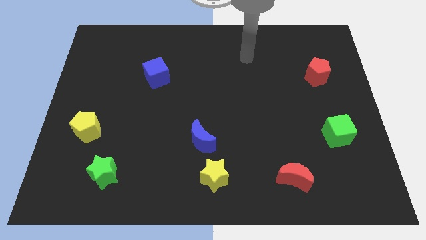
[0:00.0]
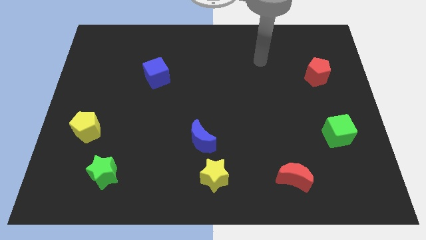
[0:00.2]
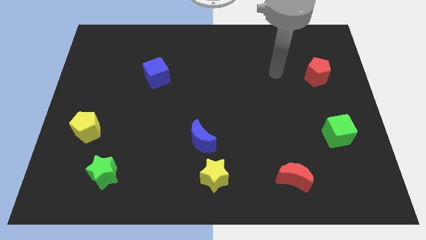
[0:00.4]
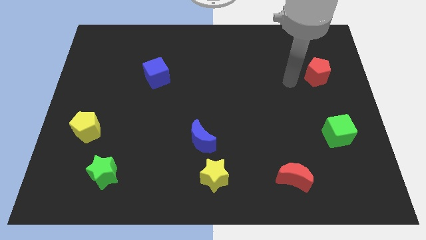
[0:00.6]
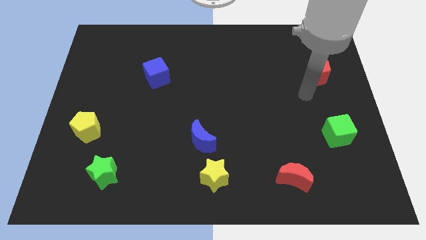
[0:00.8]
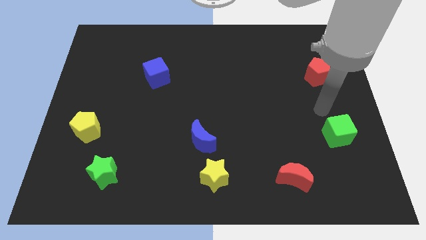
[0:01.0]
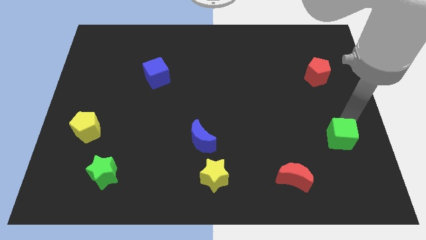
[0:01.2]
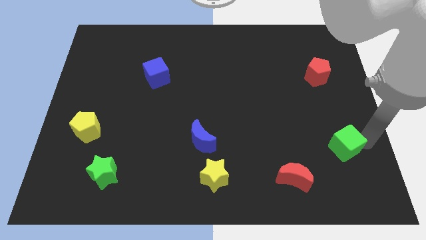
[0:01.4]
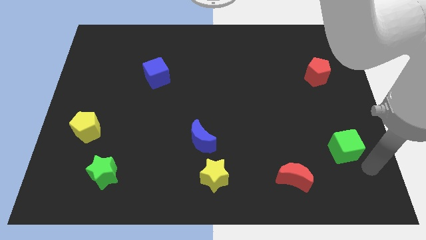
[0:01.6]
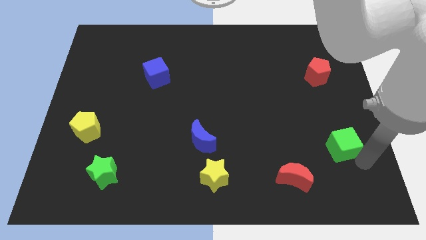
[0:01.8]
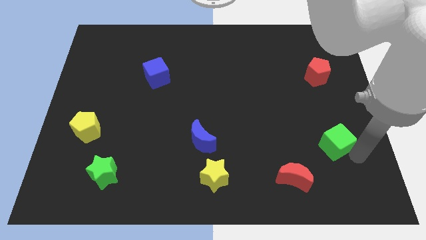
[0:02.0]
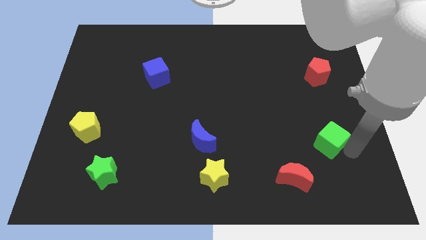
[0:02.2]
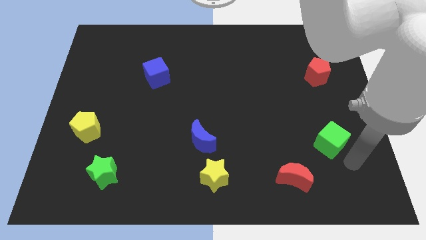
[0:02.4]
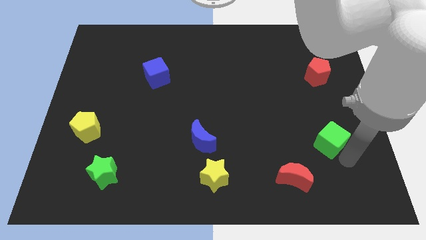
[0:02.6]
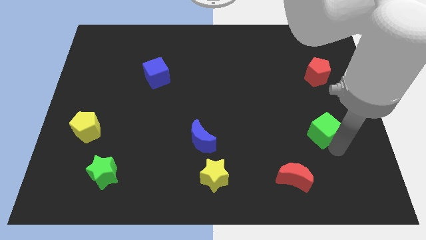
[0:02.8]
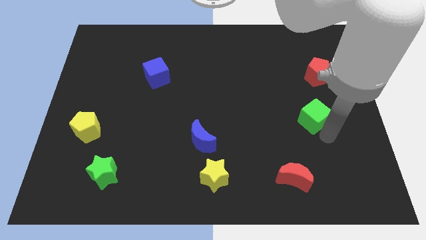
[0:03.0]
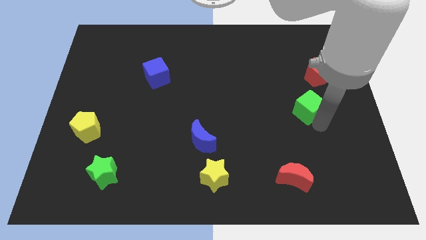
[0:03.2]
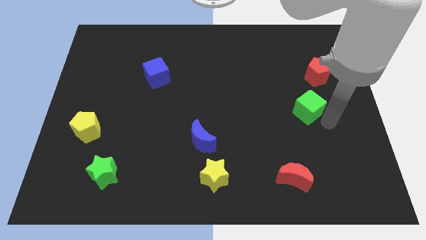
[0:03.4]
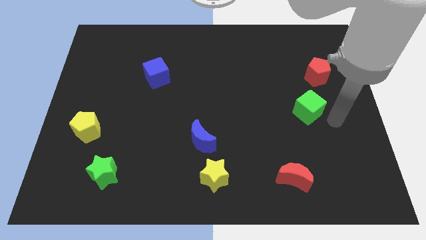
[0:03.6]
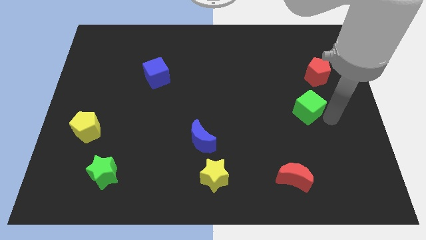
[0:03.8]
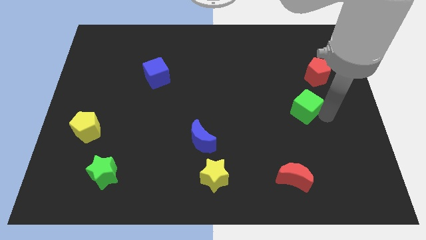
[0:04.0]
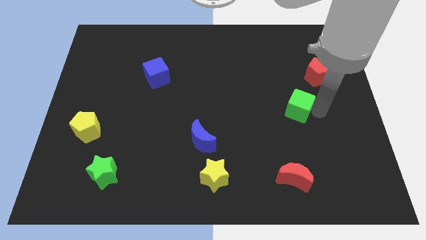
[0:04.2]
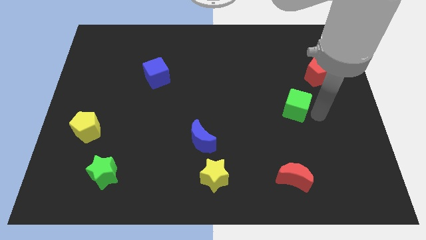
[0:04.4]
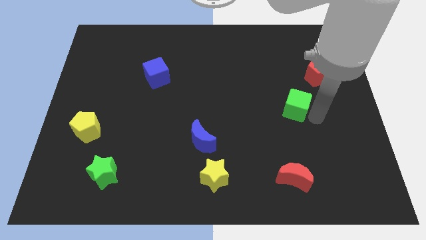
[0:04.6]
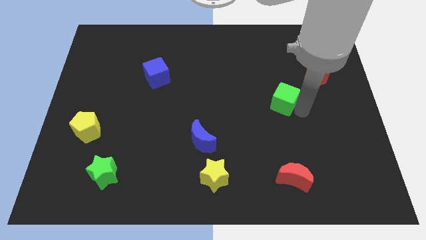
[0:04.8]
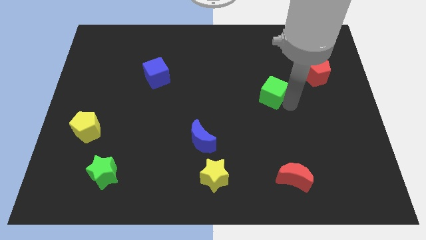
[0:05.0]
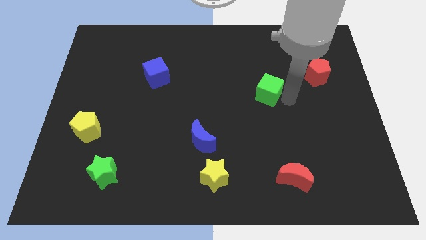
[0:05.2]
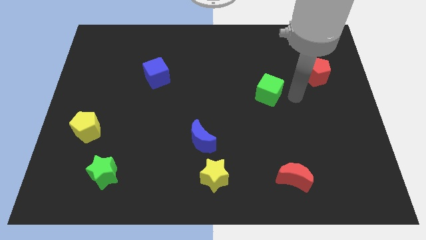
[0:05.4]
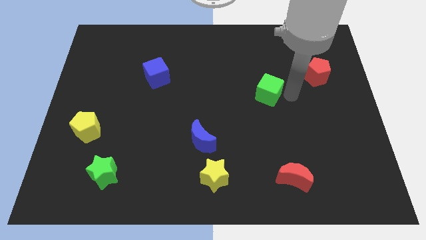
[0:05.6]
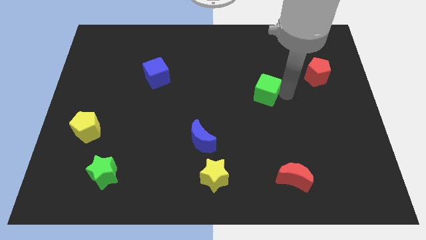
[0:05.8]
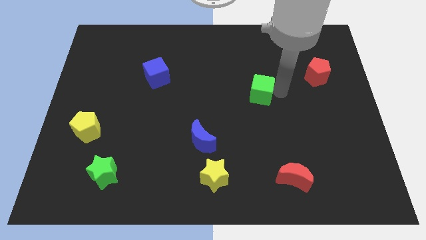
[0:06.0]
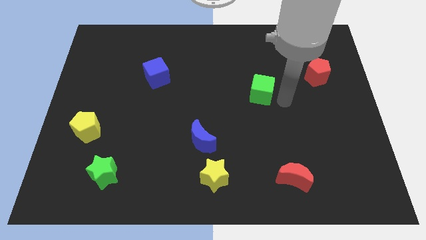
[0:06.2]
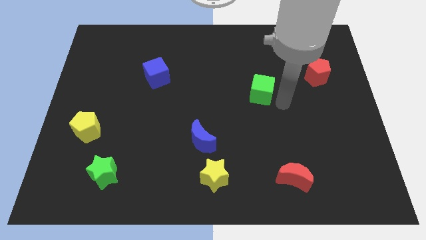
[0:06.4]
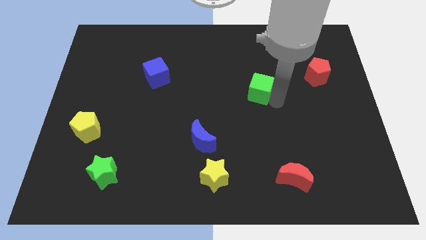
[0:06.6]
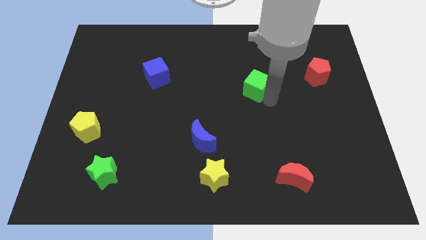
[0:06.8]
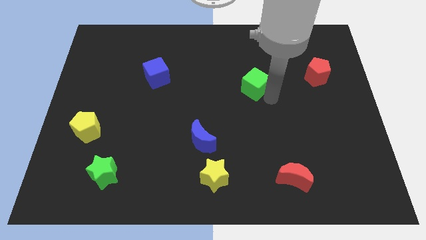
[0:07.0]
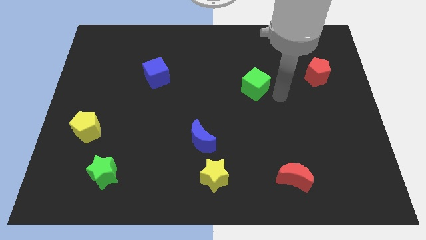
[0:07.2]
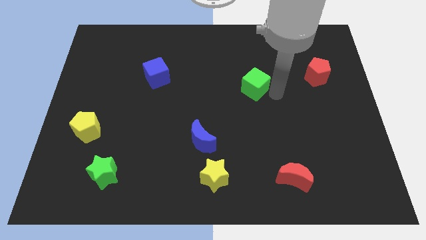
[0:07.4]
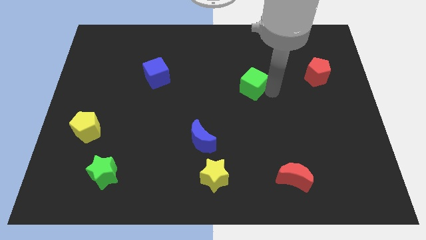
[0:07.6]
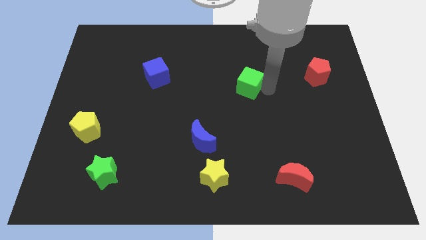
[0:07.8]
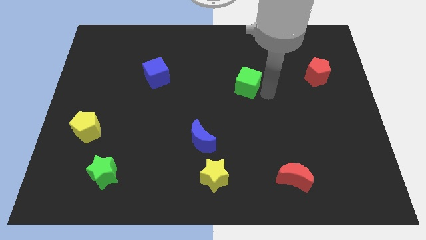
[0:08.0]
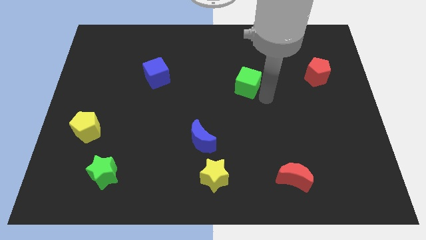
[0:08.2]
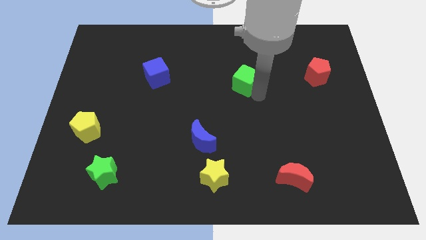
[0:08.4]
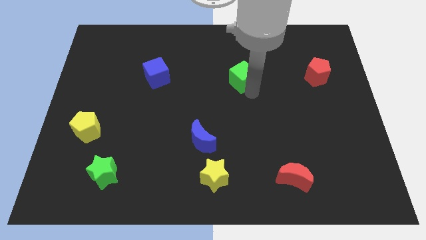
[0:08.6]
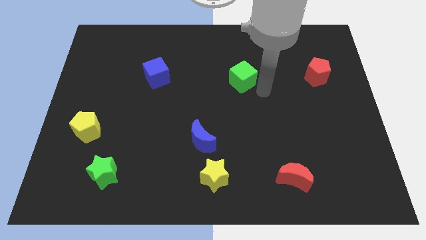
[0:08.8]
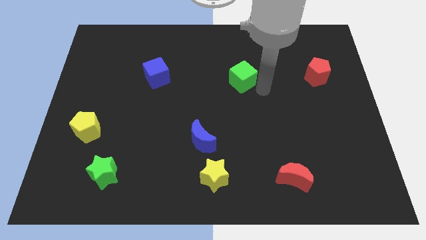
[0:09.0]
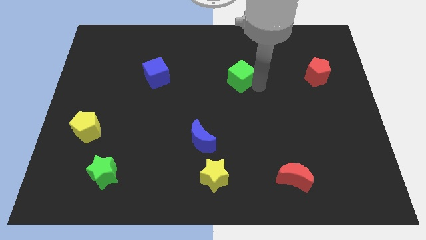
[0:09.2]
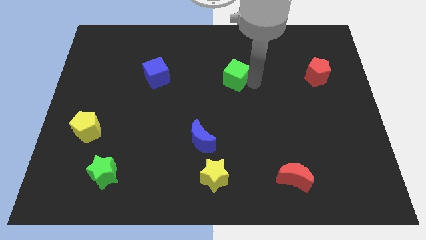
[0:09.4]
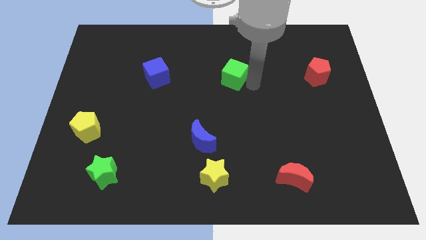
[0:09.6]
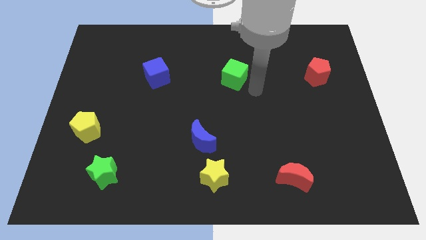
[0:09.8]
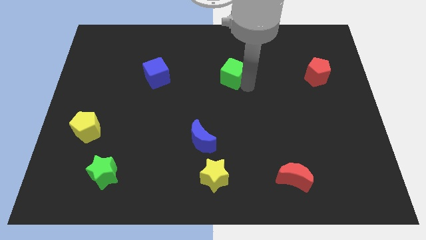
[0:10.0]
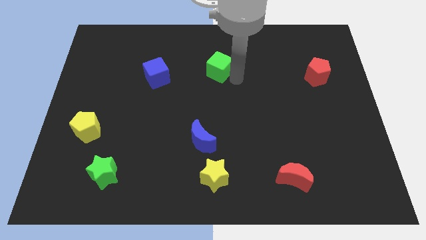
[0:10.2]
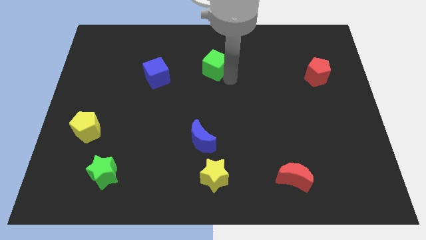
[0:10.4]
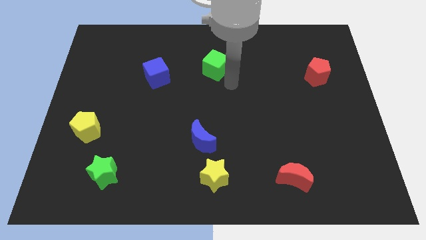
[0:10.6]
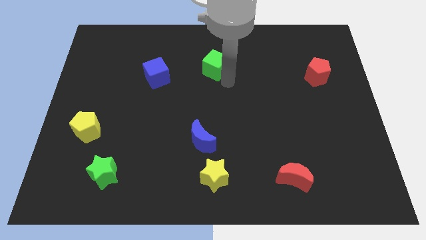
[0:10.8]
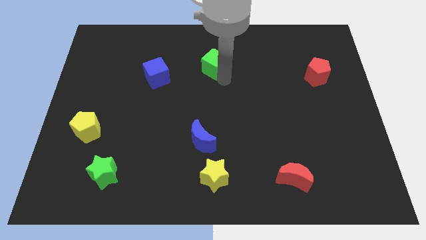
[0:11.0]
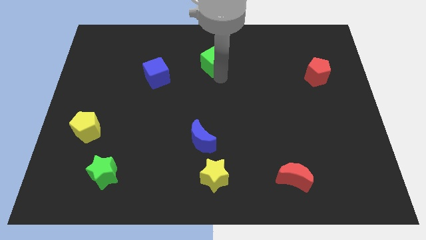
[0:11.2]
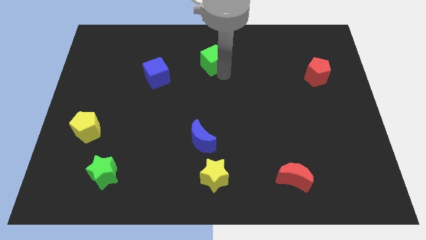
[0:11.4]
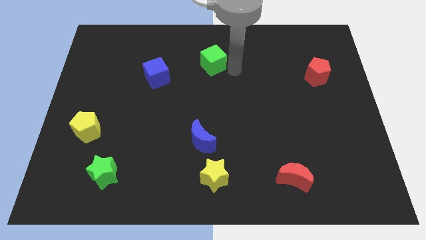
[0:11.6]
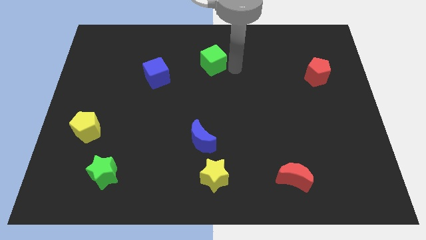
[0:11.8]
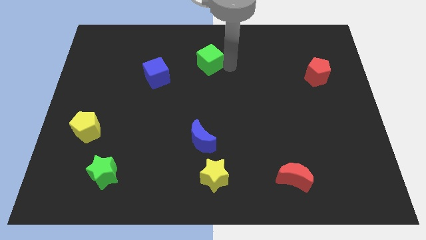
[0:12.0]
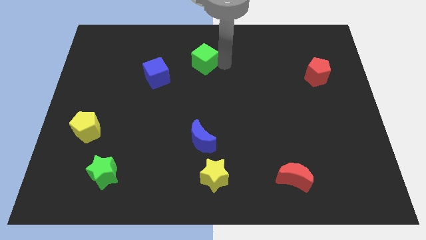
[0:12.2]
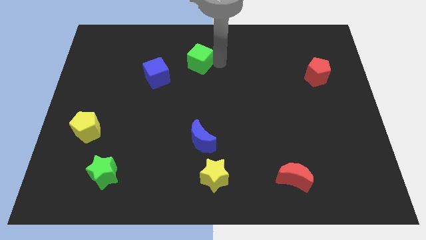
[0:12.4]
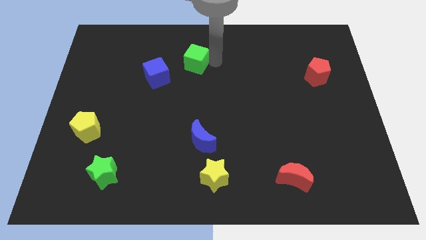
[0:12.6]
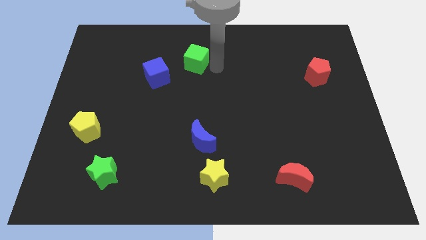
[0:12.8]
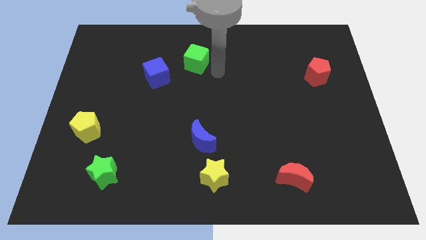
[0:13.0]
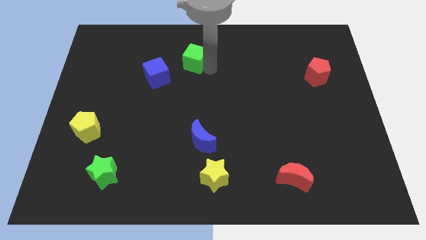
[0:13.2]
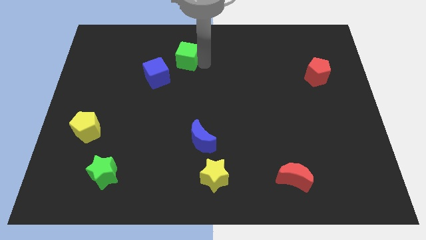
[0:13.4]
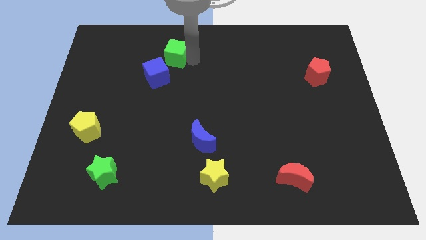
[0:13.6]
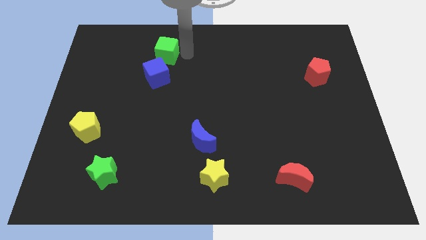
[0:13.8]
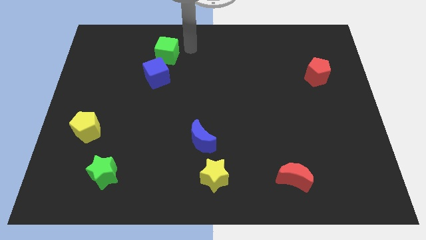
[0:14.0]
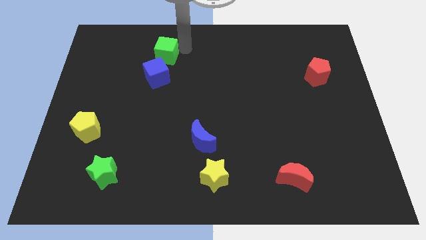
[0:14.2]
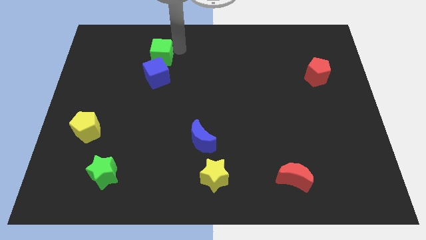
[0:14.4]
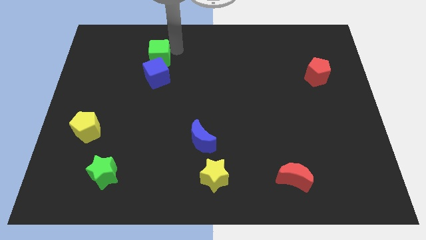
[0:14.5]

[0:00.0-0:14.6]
move the green cube to the top left of the blue cube

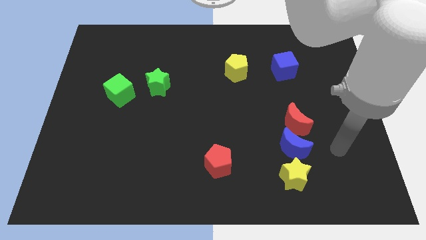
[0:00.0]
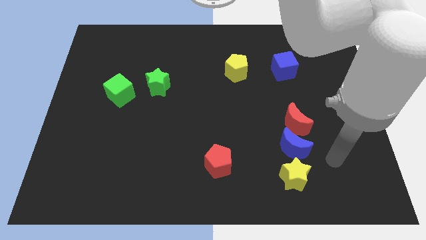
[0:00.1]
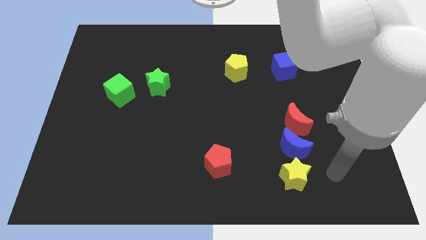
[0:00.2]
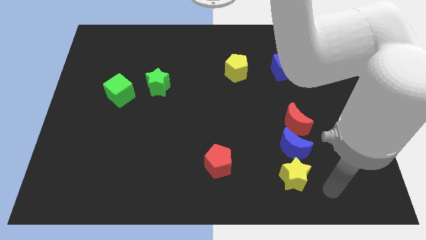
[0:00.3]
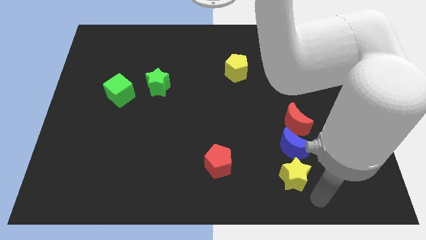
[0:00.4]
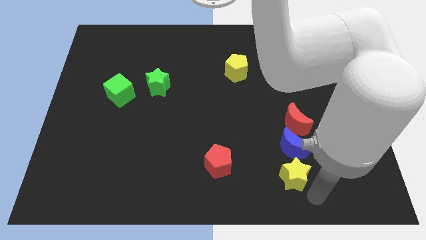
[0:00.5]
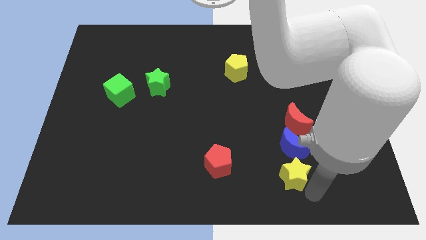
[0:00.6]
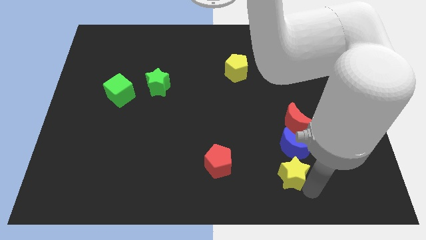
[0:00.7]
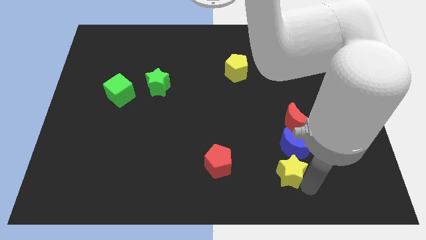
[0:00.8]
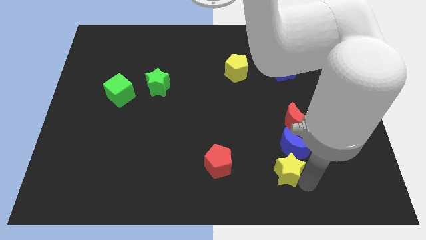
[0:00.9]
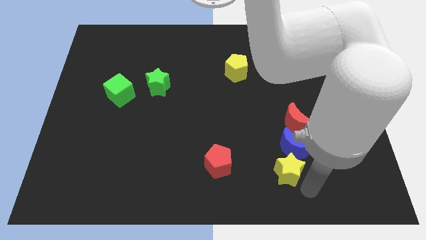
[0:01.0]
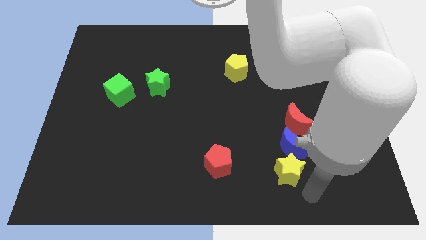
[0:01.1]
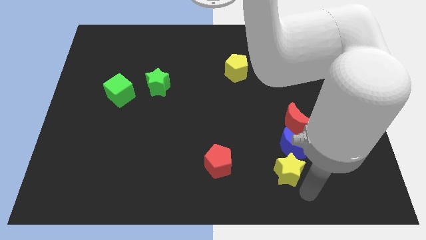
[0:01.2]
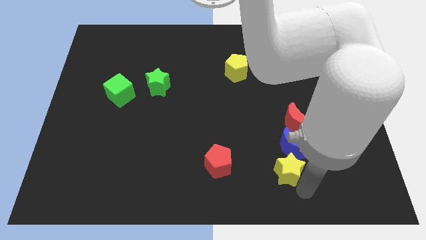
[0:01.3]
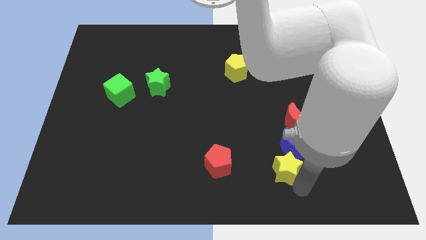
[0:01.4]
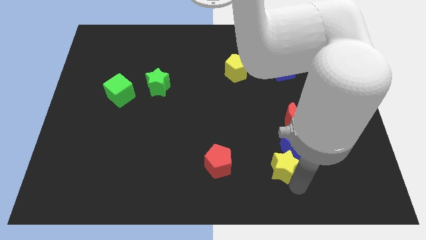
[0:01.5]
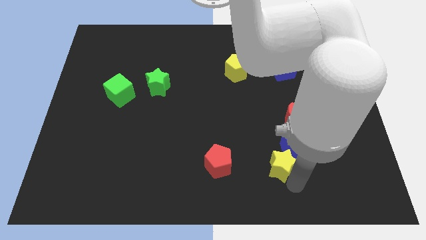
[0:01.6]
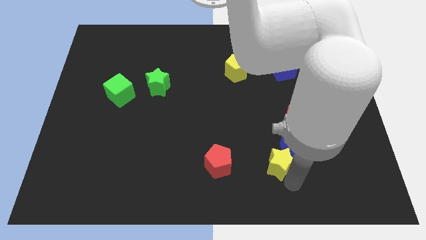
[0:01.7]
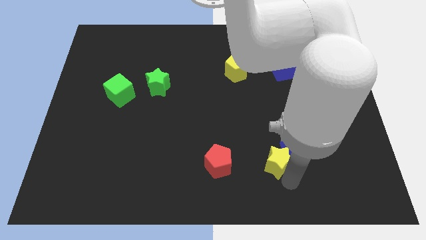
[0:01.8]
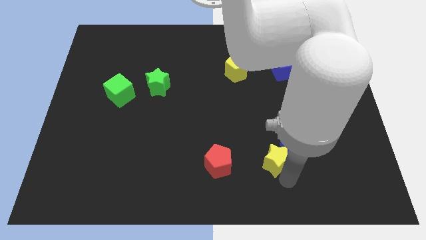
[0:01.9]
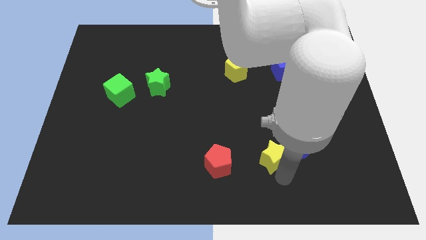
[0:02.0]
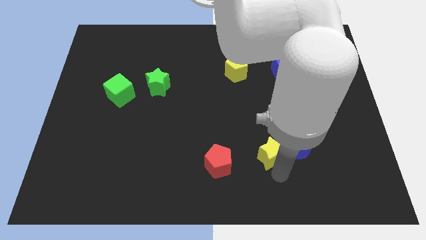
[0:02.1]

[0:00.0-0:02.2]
push the yellow star diagonally up and to the left of the blue moon
